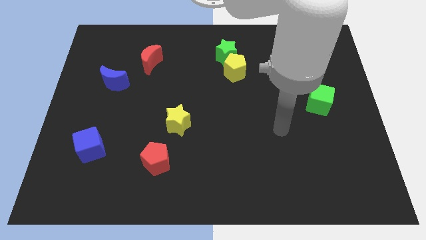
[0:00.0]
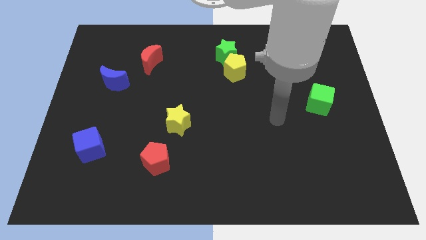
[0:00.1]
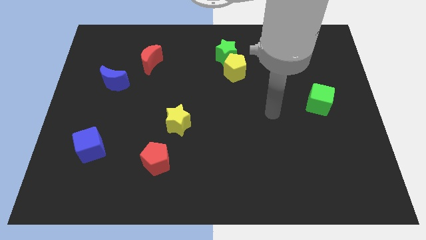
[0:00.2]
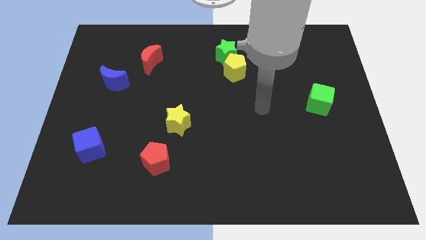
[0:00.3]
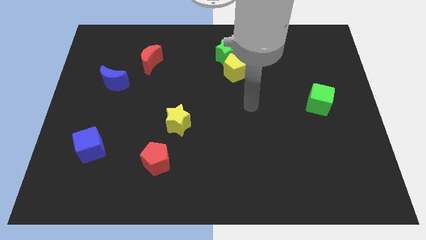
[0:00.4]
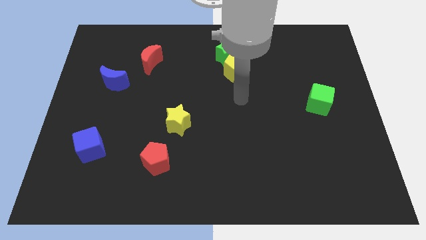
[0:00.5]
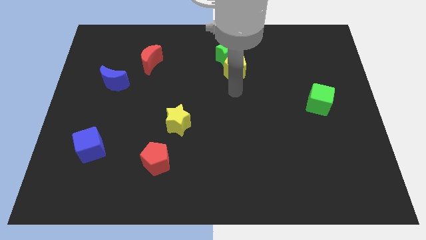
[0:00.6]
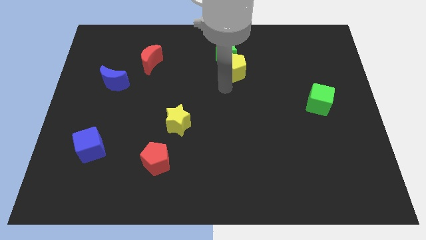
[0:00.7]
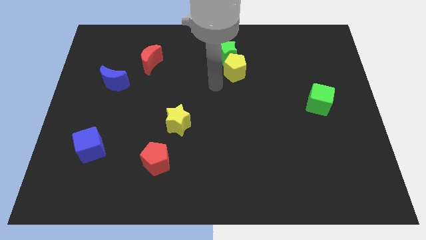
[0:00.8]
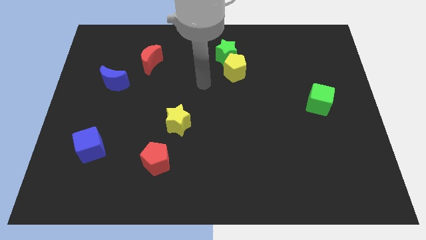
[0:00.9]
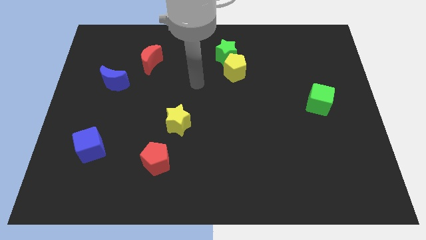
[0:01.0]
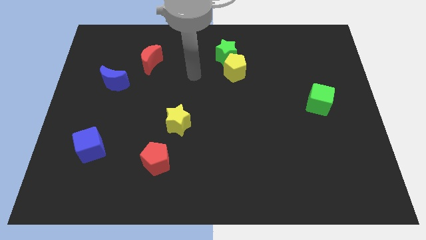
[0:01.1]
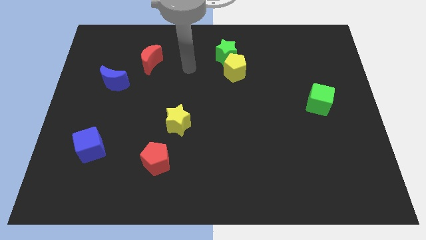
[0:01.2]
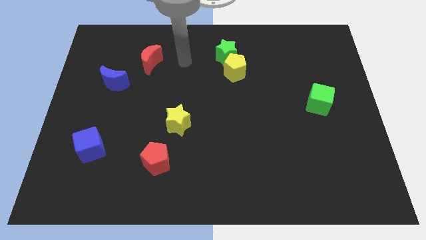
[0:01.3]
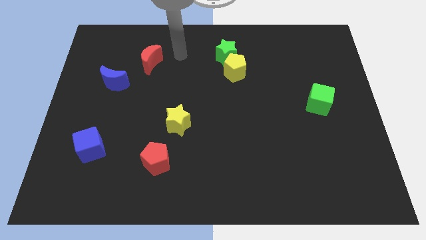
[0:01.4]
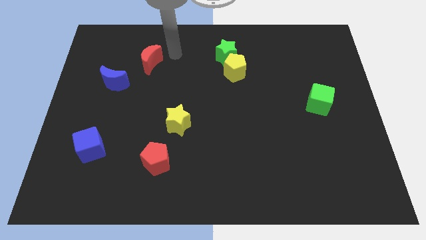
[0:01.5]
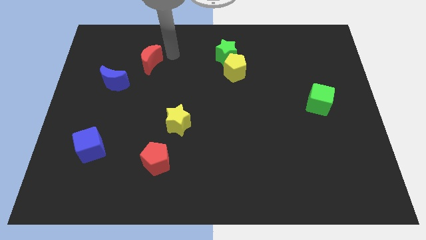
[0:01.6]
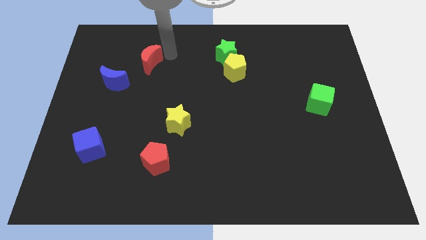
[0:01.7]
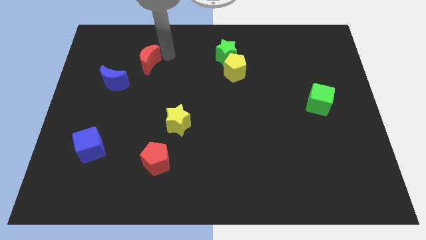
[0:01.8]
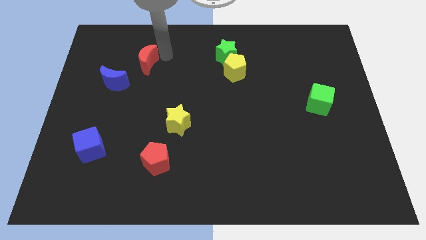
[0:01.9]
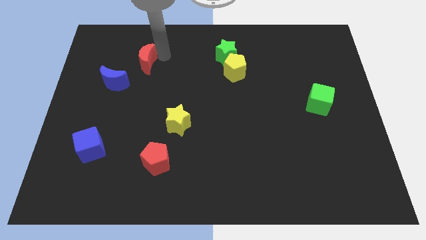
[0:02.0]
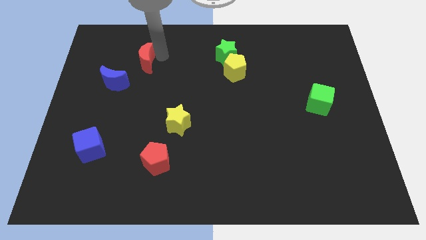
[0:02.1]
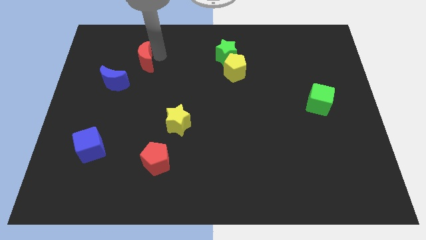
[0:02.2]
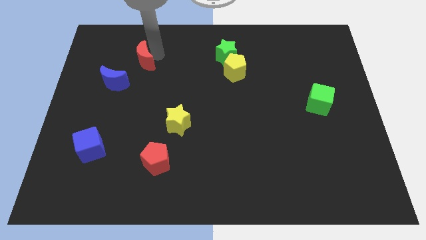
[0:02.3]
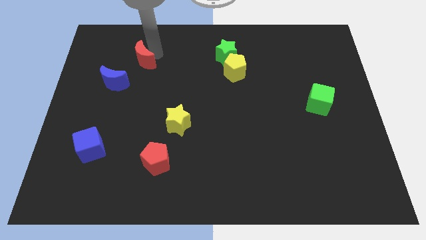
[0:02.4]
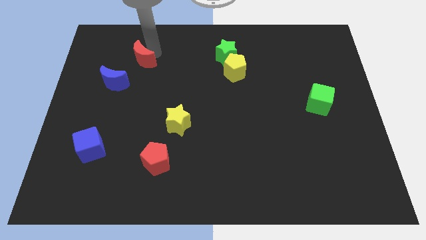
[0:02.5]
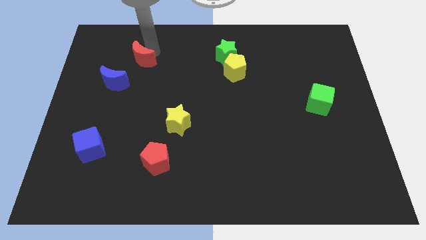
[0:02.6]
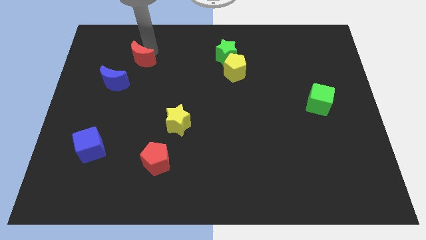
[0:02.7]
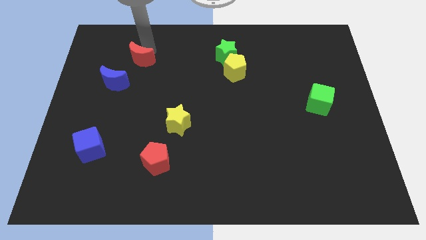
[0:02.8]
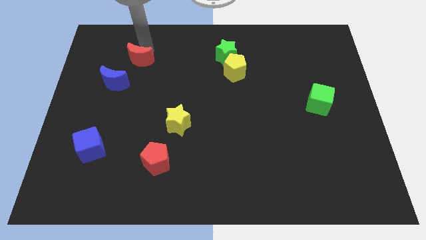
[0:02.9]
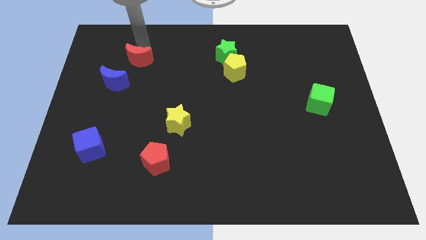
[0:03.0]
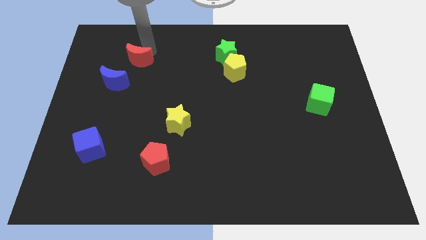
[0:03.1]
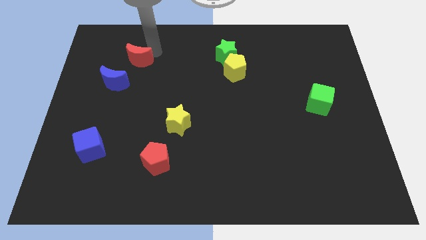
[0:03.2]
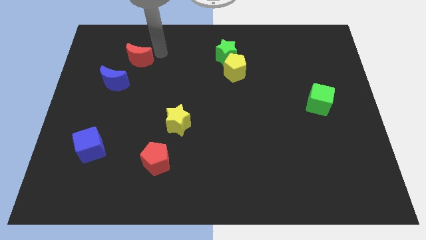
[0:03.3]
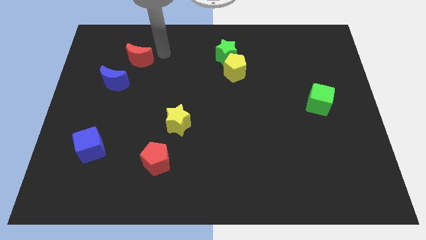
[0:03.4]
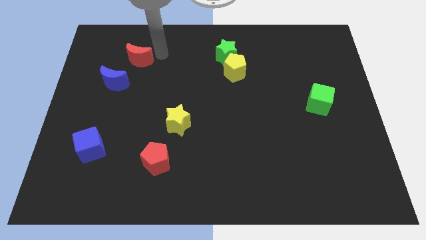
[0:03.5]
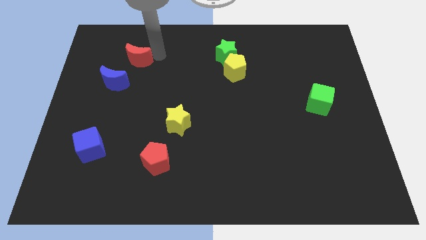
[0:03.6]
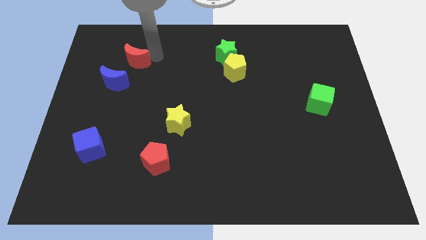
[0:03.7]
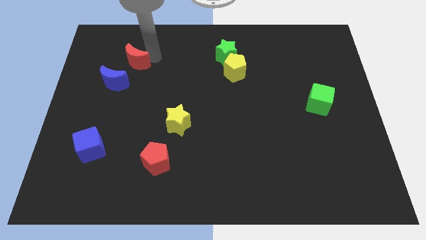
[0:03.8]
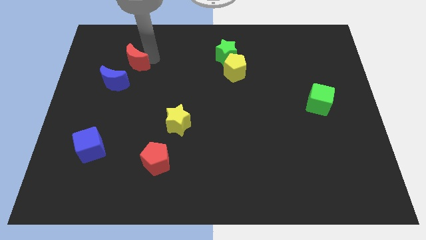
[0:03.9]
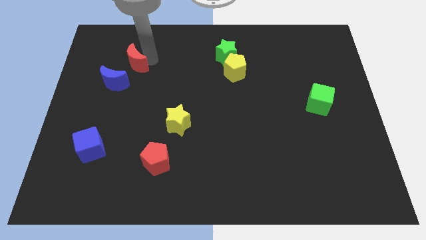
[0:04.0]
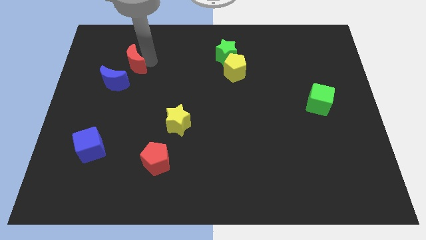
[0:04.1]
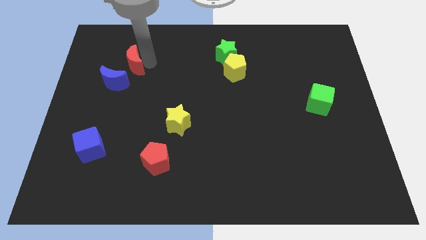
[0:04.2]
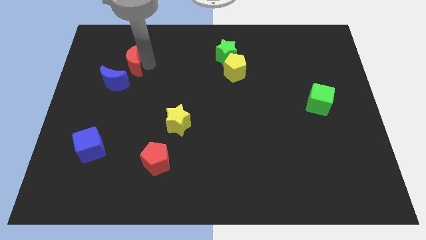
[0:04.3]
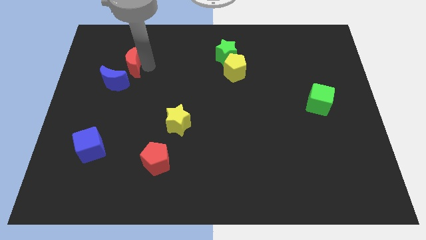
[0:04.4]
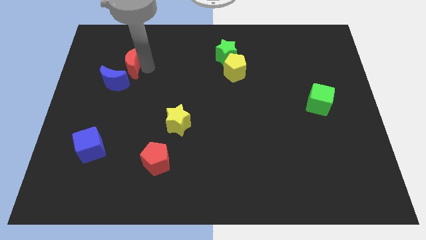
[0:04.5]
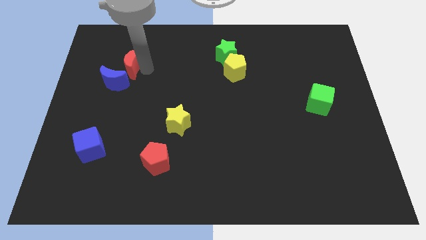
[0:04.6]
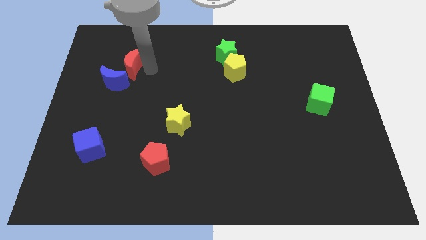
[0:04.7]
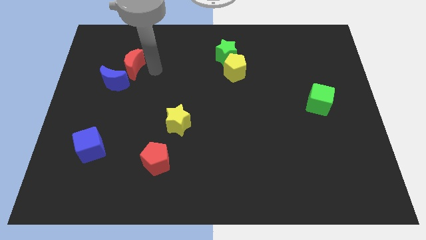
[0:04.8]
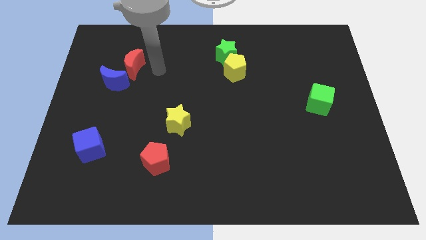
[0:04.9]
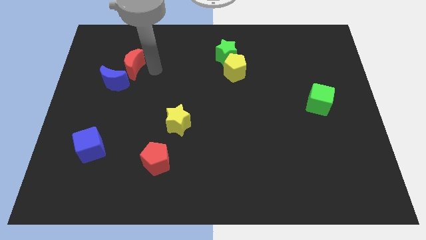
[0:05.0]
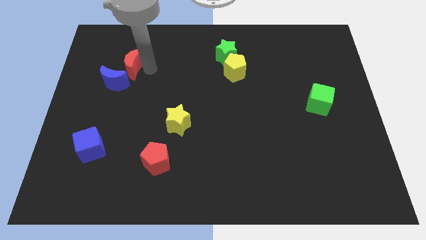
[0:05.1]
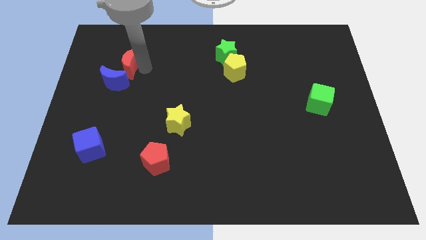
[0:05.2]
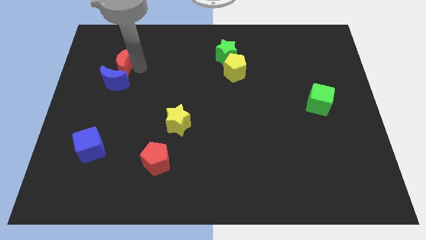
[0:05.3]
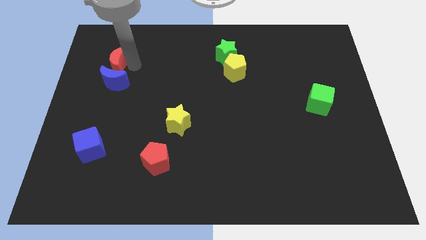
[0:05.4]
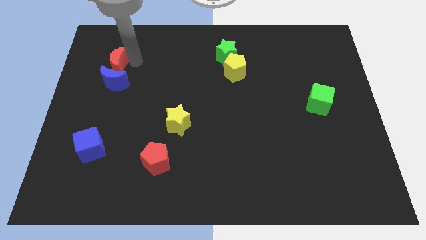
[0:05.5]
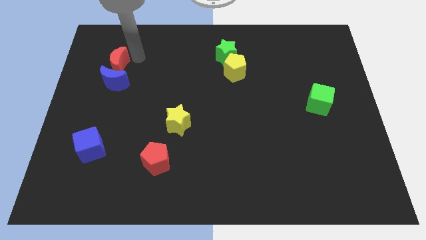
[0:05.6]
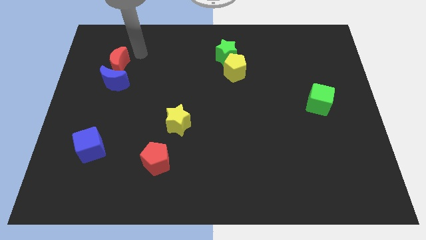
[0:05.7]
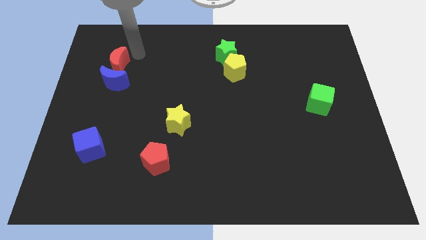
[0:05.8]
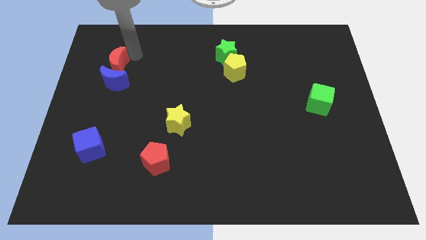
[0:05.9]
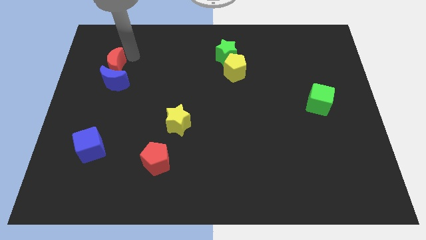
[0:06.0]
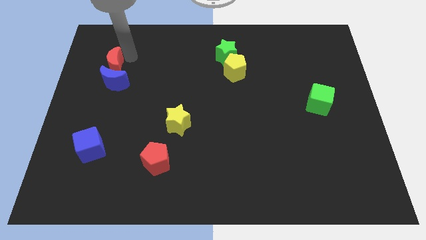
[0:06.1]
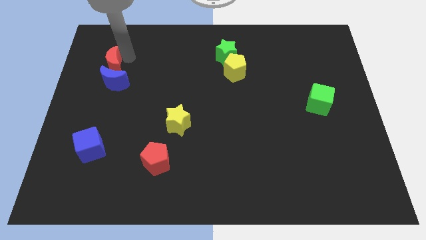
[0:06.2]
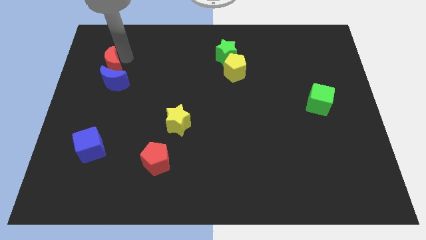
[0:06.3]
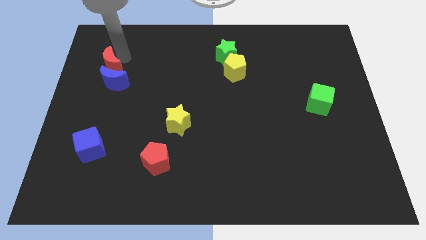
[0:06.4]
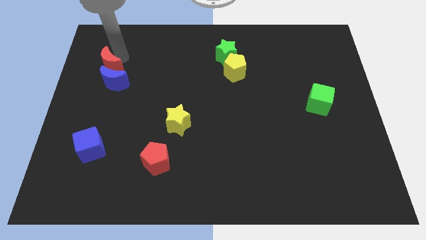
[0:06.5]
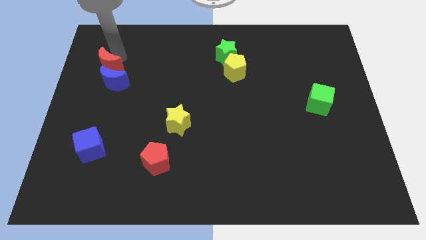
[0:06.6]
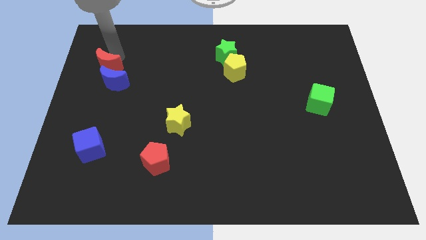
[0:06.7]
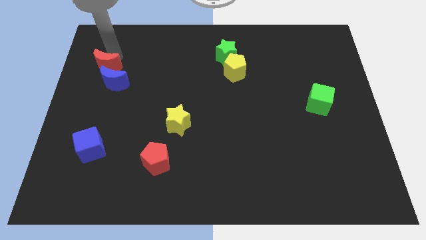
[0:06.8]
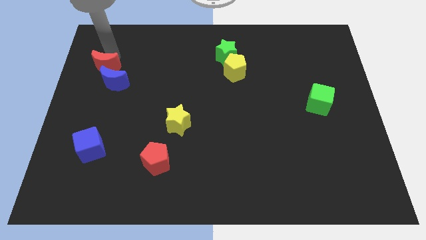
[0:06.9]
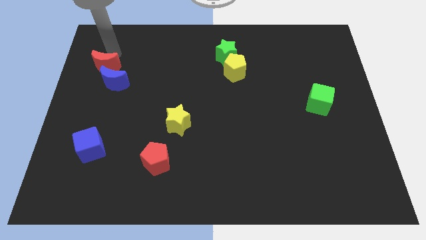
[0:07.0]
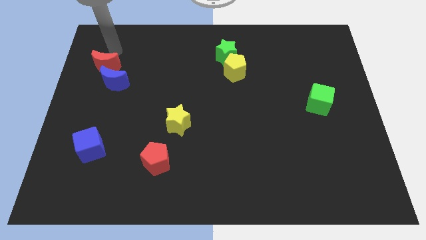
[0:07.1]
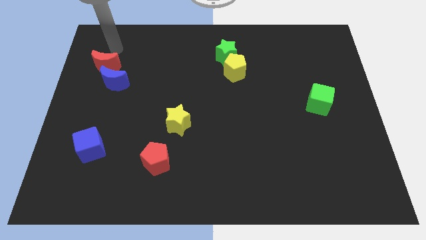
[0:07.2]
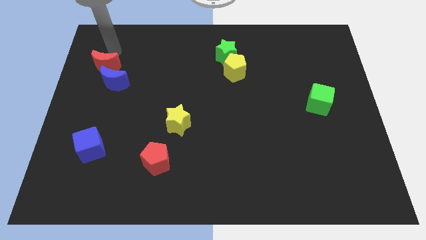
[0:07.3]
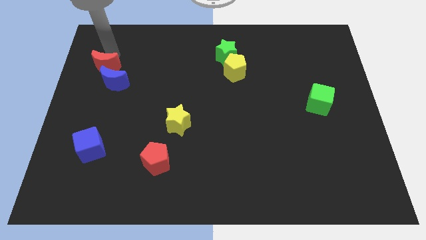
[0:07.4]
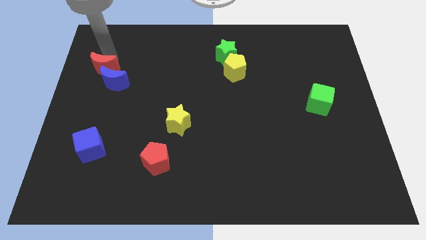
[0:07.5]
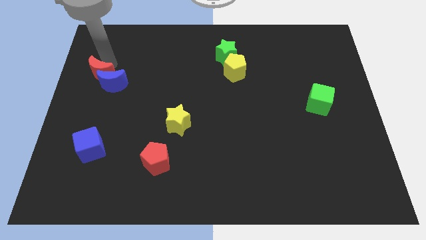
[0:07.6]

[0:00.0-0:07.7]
put the red moon to the left side of the board
